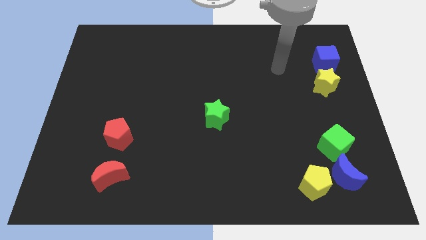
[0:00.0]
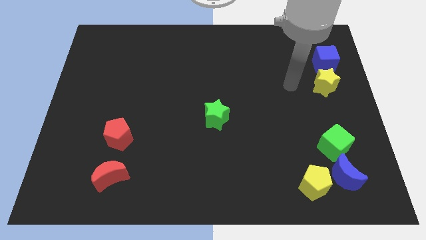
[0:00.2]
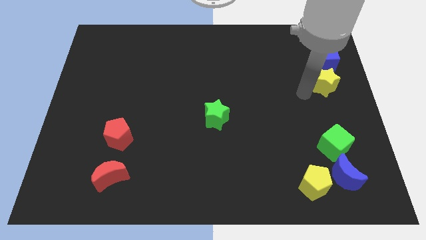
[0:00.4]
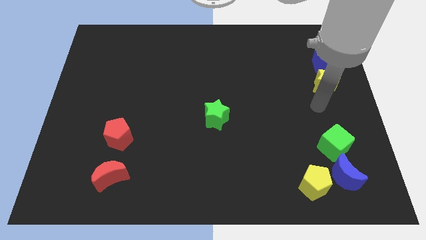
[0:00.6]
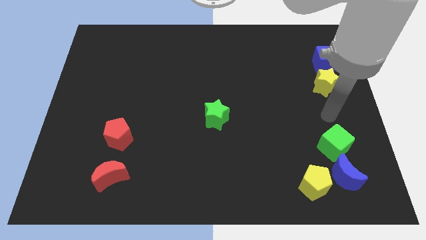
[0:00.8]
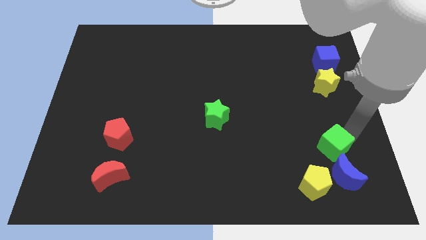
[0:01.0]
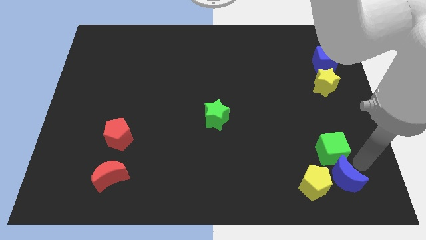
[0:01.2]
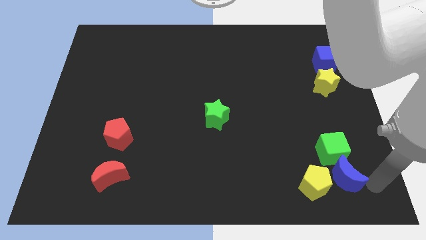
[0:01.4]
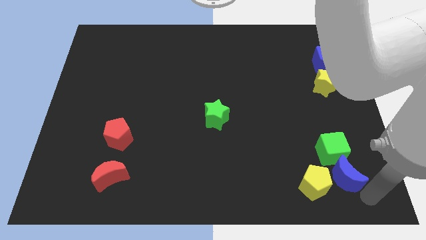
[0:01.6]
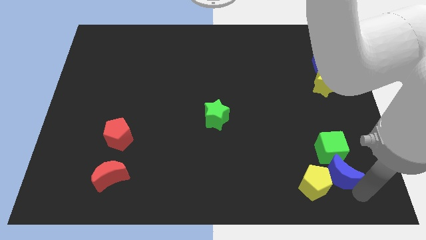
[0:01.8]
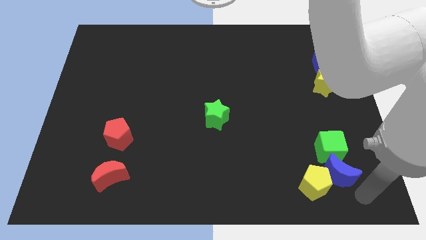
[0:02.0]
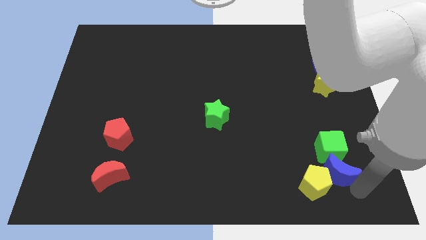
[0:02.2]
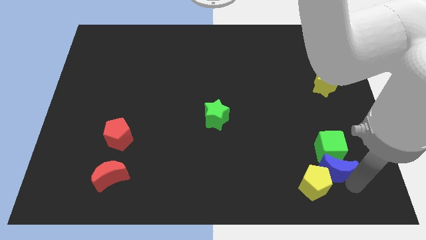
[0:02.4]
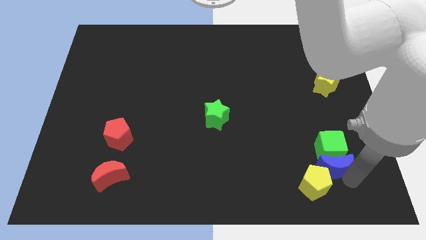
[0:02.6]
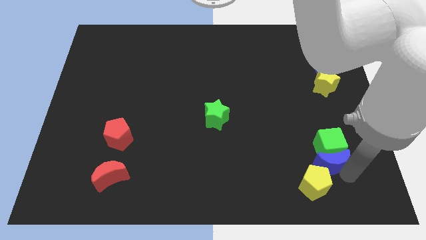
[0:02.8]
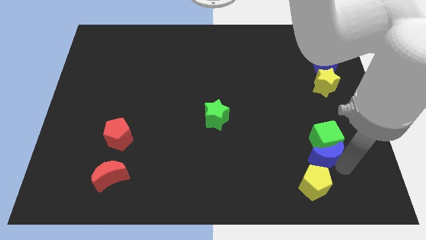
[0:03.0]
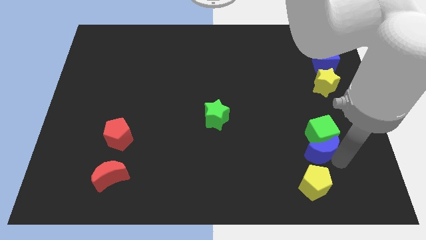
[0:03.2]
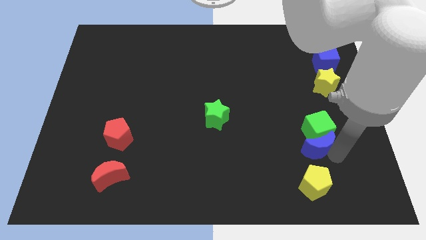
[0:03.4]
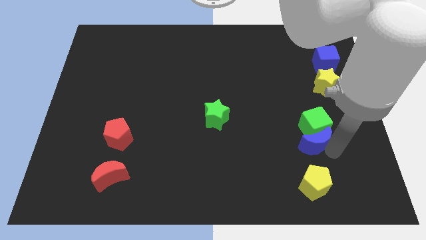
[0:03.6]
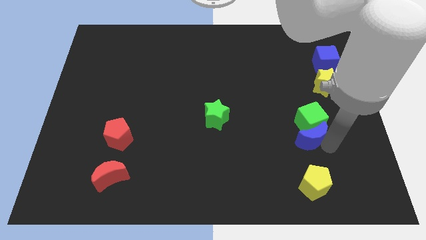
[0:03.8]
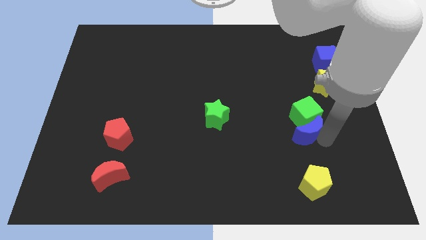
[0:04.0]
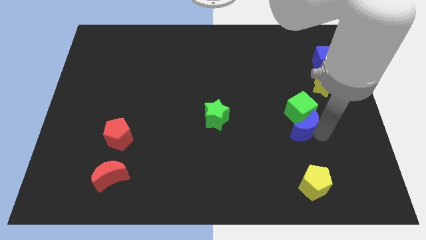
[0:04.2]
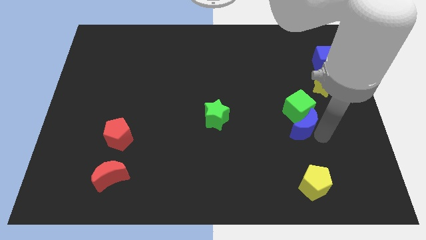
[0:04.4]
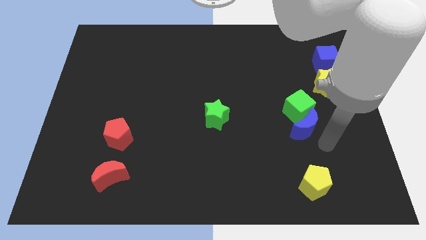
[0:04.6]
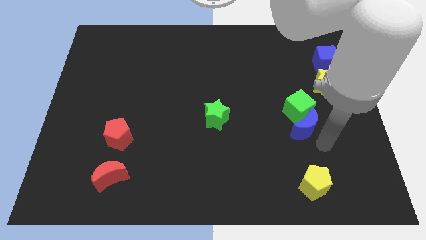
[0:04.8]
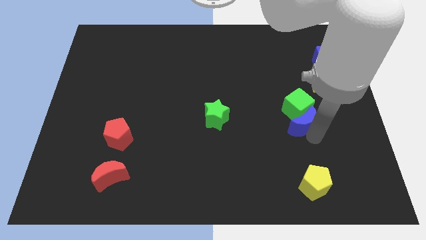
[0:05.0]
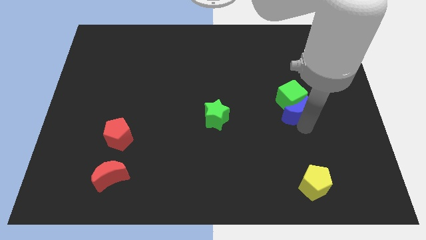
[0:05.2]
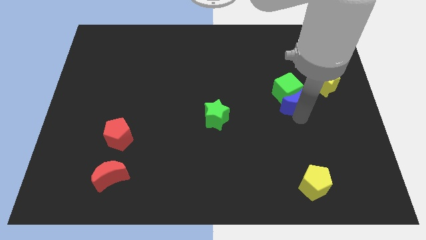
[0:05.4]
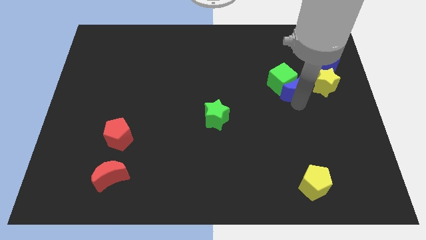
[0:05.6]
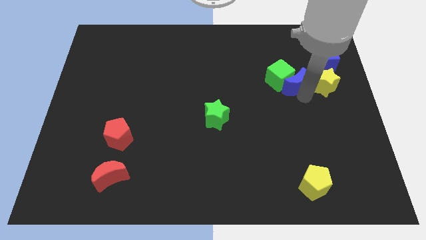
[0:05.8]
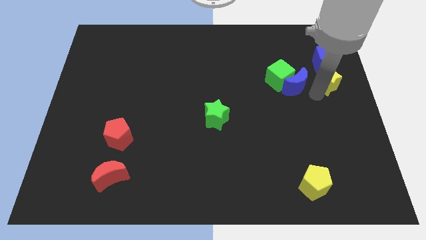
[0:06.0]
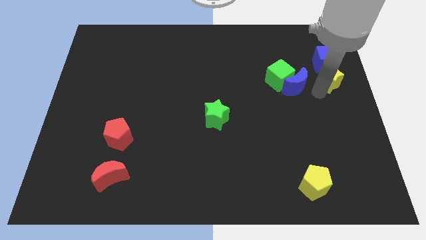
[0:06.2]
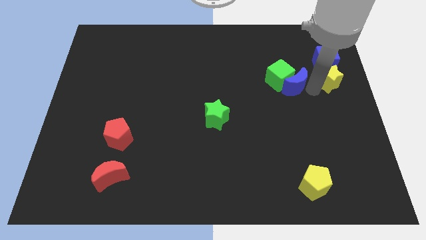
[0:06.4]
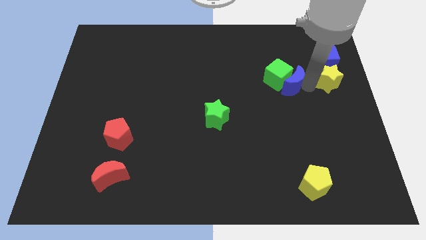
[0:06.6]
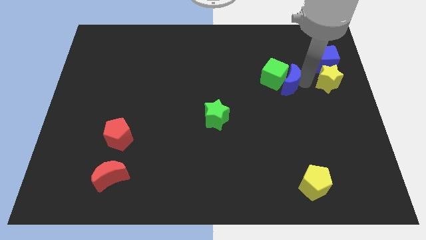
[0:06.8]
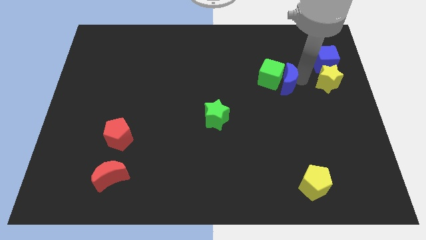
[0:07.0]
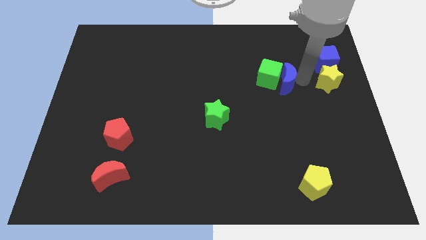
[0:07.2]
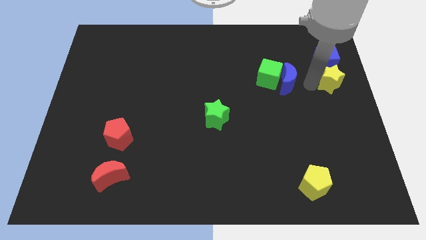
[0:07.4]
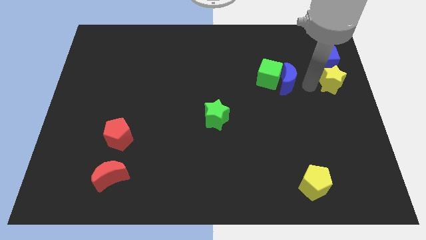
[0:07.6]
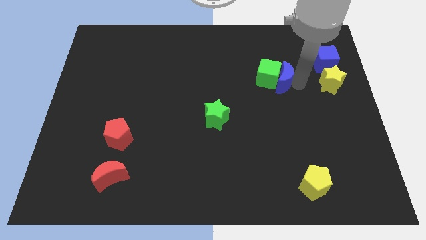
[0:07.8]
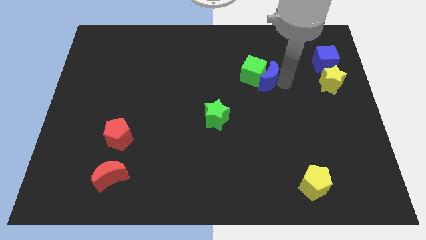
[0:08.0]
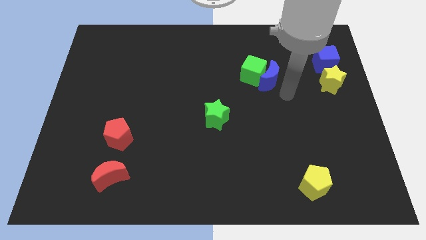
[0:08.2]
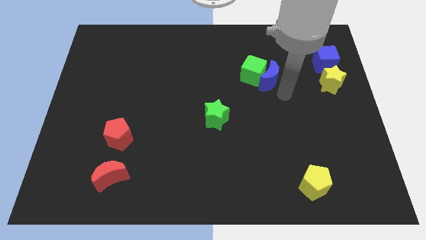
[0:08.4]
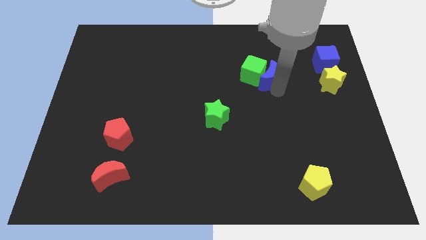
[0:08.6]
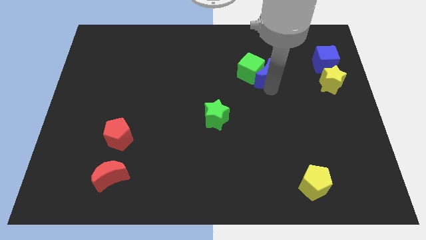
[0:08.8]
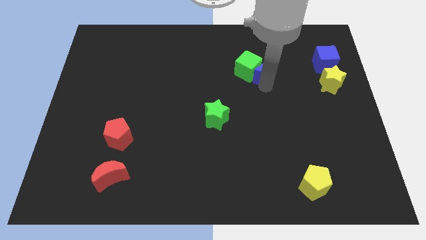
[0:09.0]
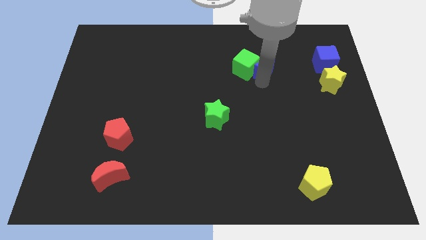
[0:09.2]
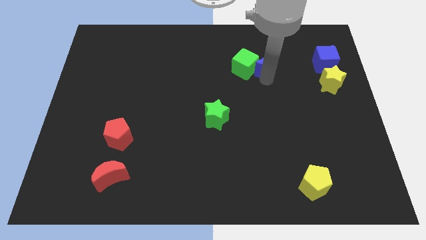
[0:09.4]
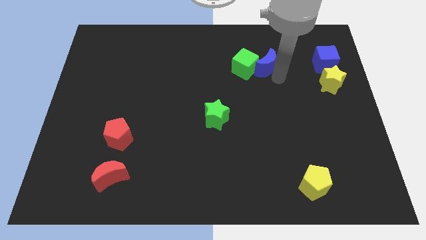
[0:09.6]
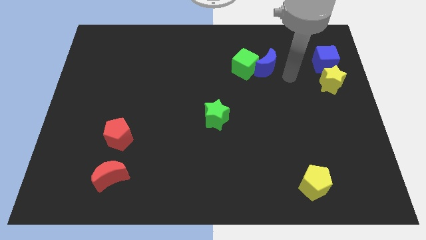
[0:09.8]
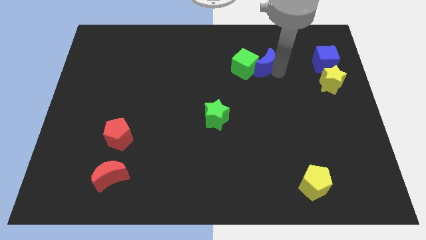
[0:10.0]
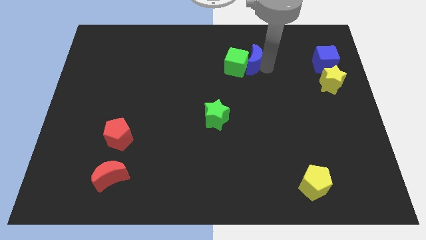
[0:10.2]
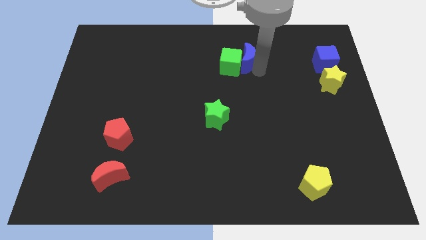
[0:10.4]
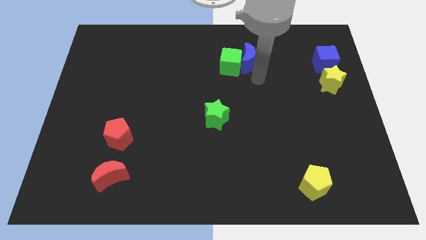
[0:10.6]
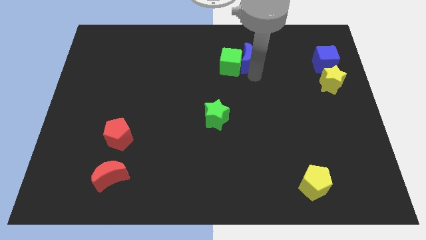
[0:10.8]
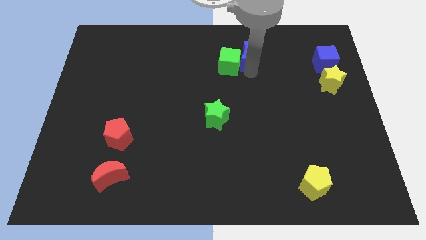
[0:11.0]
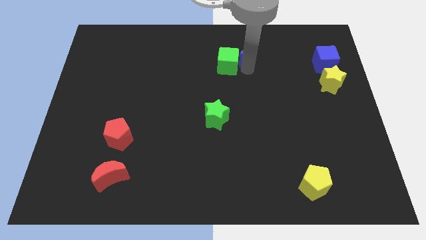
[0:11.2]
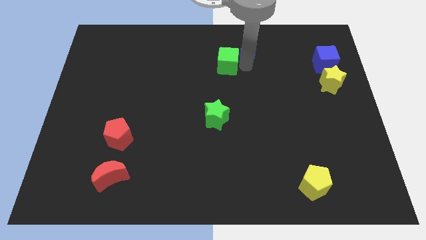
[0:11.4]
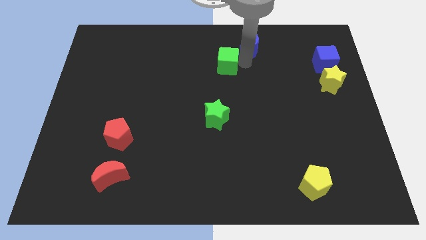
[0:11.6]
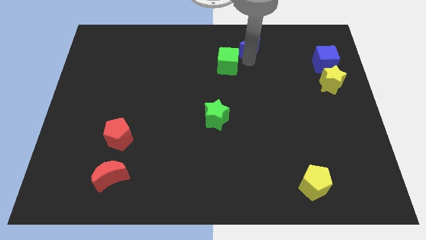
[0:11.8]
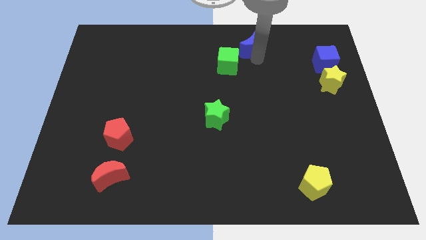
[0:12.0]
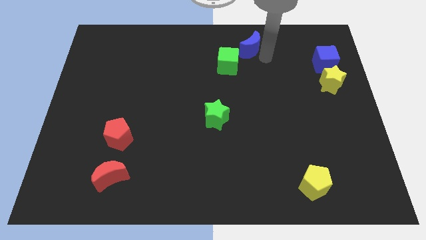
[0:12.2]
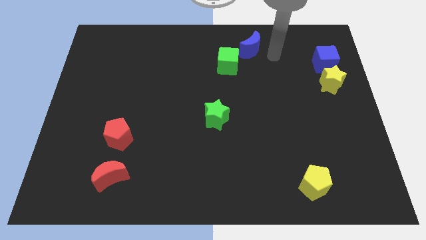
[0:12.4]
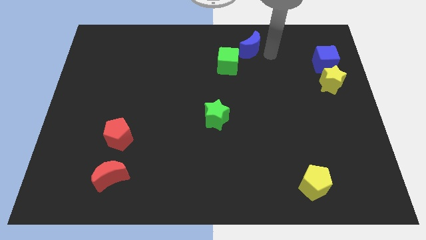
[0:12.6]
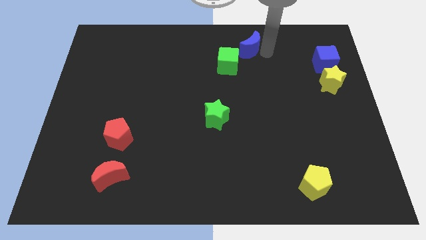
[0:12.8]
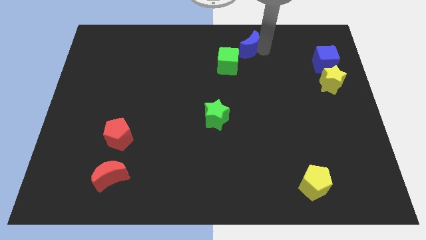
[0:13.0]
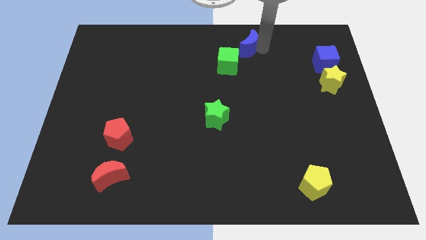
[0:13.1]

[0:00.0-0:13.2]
push the blue moon to the top side
